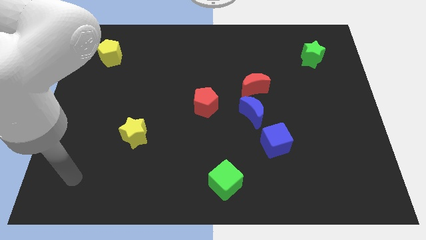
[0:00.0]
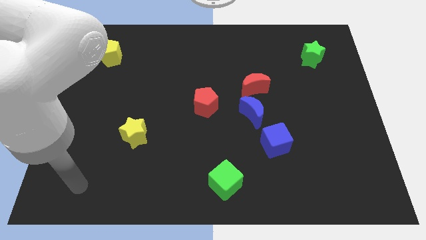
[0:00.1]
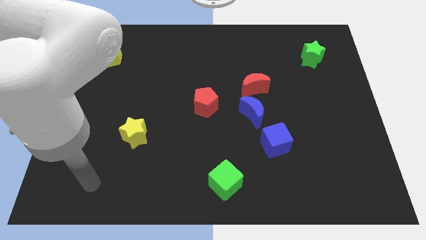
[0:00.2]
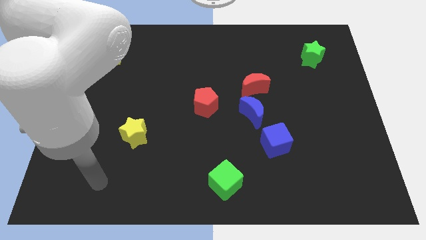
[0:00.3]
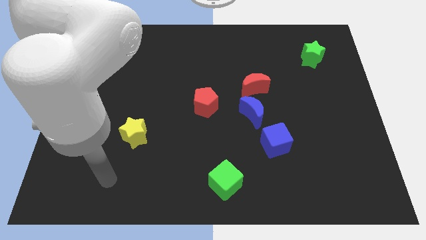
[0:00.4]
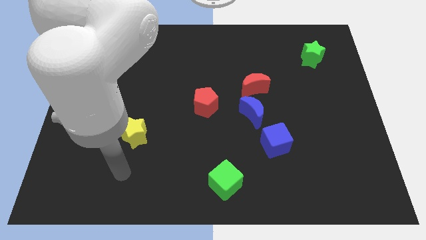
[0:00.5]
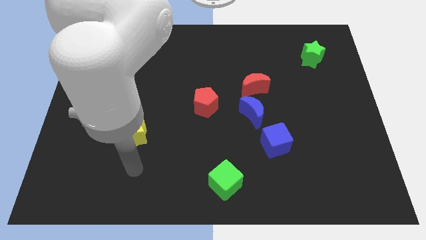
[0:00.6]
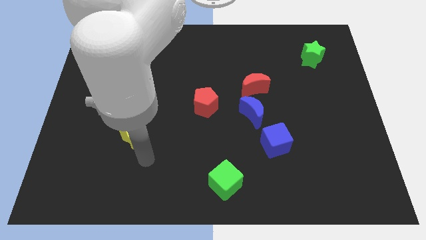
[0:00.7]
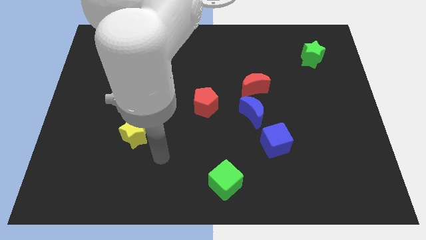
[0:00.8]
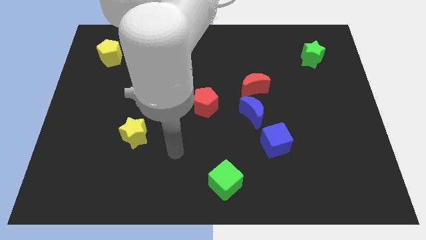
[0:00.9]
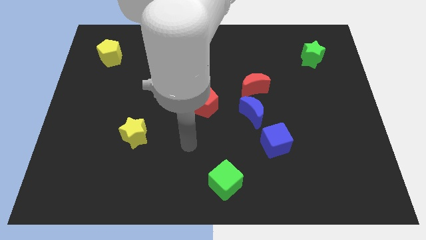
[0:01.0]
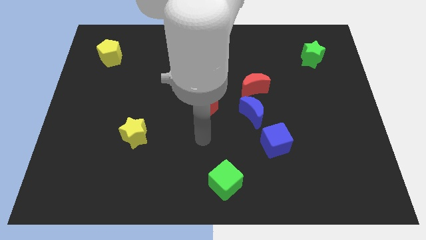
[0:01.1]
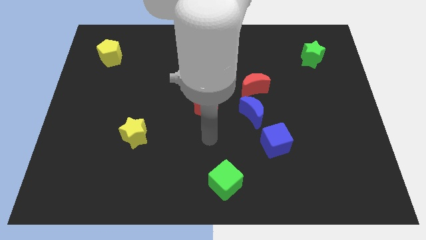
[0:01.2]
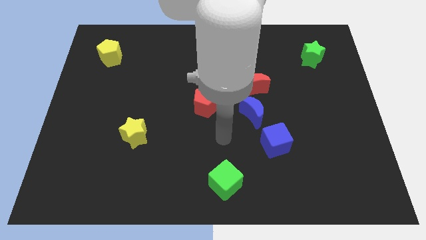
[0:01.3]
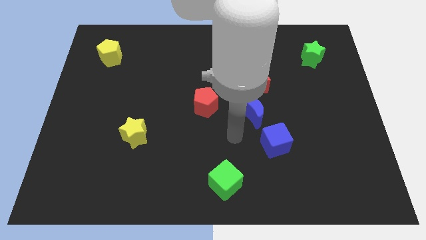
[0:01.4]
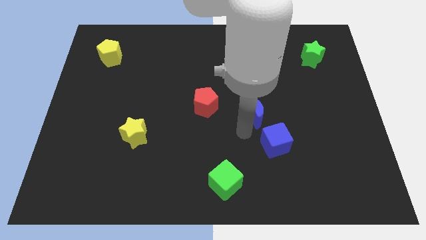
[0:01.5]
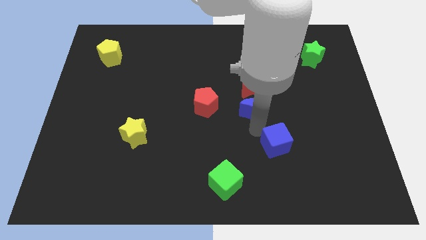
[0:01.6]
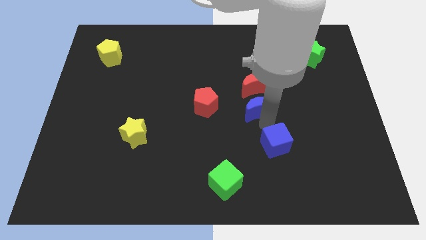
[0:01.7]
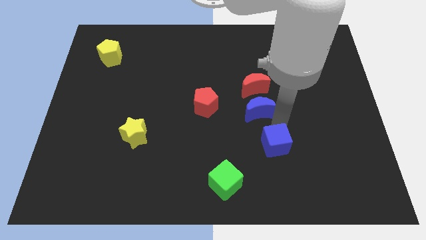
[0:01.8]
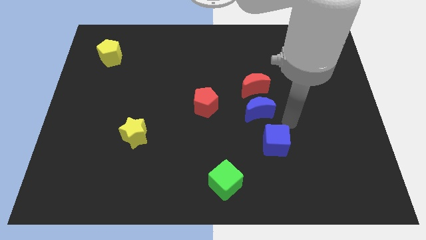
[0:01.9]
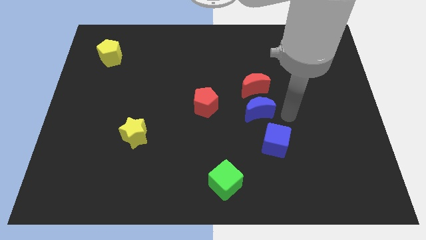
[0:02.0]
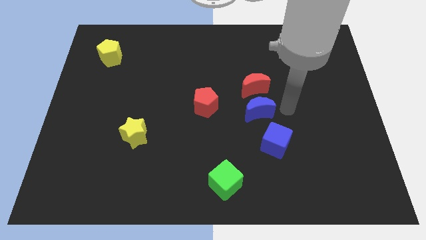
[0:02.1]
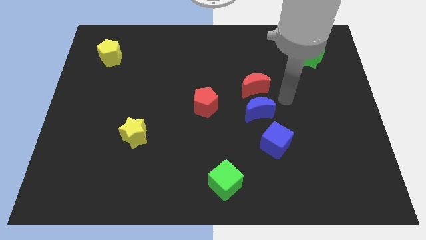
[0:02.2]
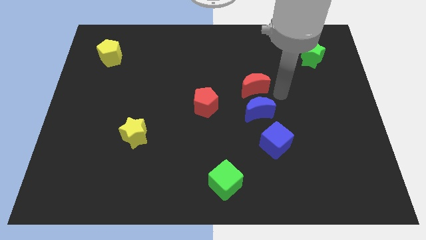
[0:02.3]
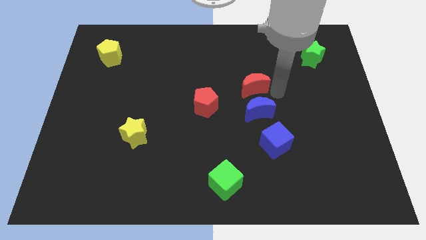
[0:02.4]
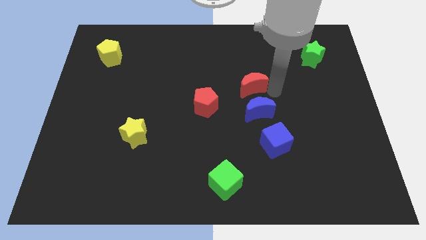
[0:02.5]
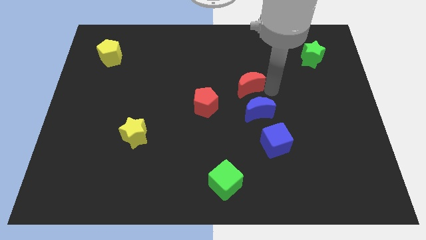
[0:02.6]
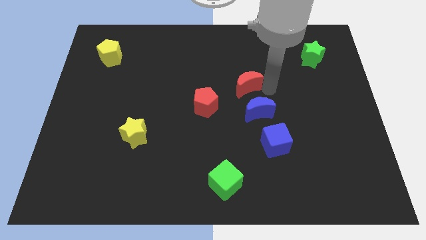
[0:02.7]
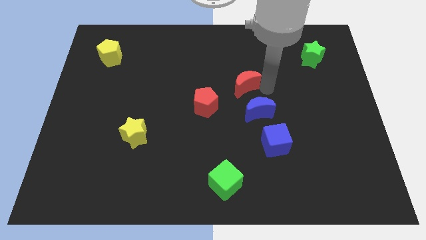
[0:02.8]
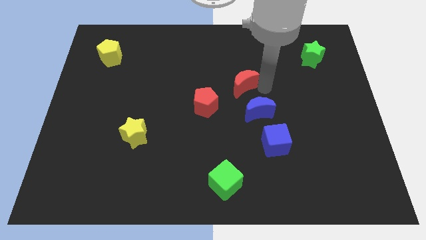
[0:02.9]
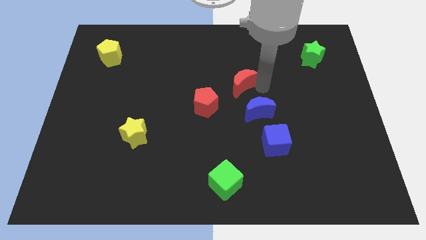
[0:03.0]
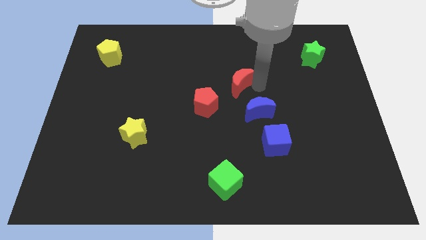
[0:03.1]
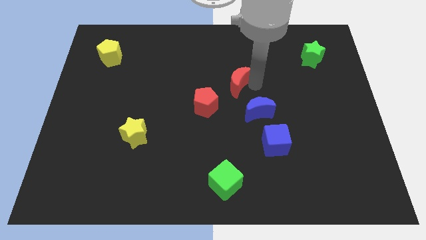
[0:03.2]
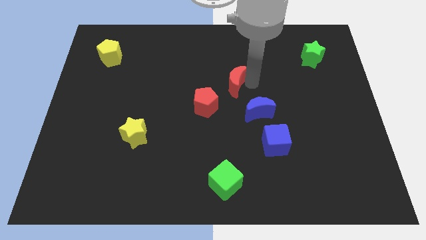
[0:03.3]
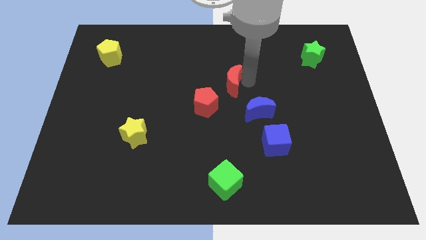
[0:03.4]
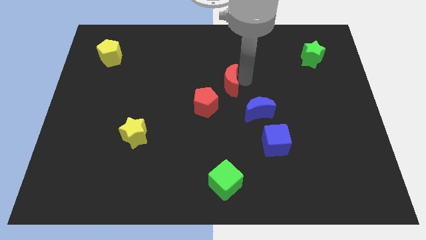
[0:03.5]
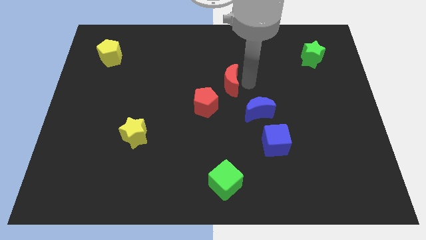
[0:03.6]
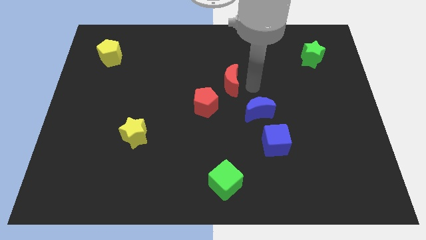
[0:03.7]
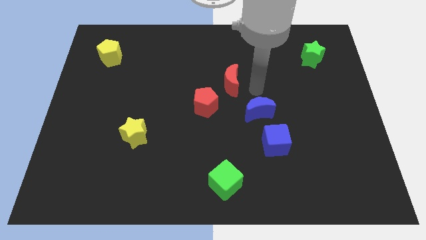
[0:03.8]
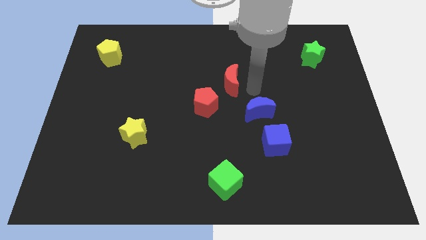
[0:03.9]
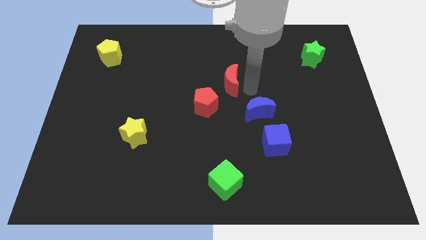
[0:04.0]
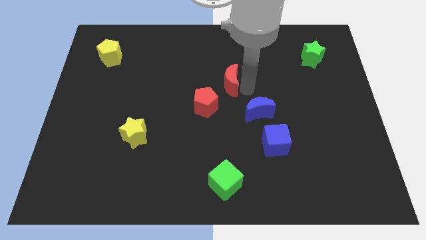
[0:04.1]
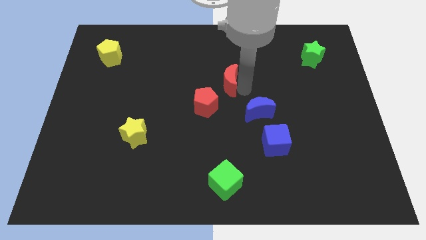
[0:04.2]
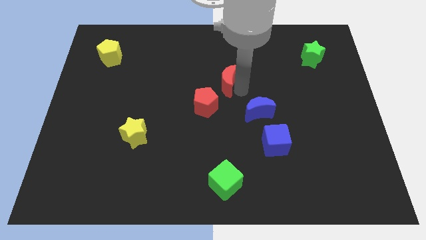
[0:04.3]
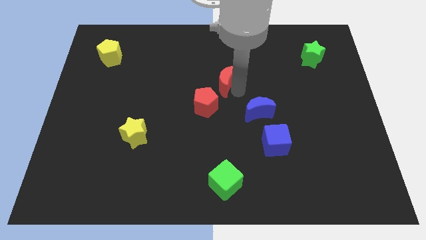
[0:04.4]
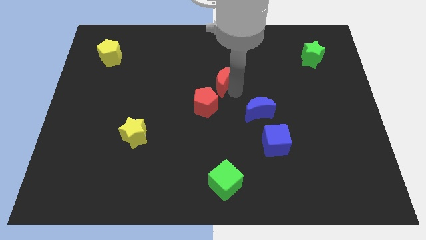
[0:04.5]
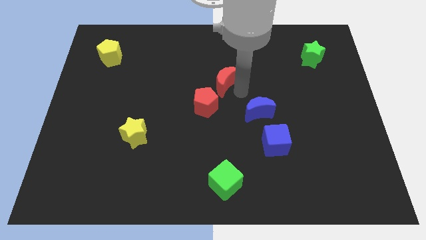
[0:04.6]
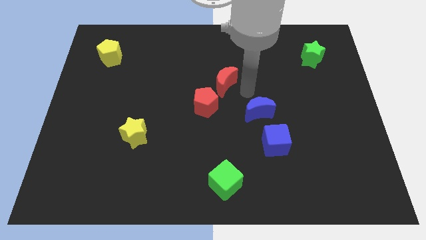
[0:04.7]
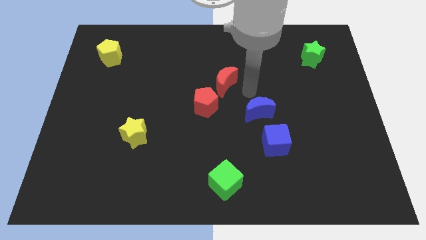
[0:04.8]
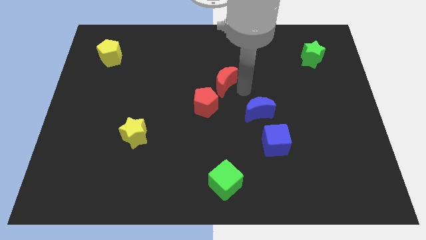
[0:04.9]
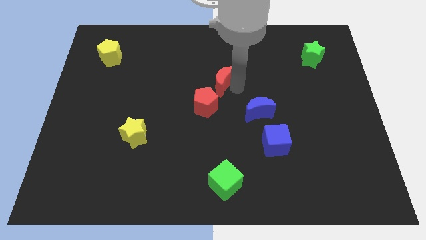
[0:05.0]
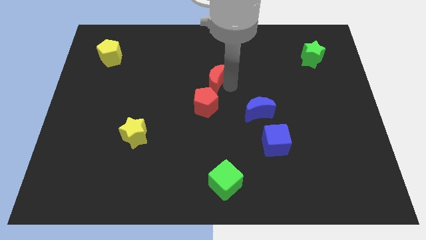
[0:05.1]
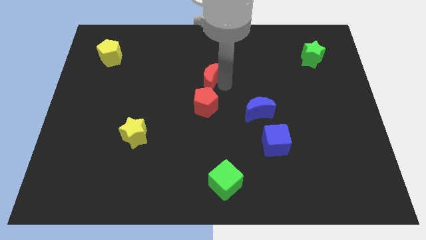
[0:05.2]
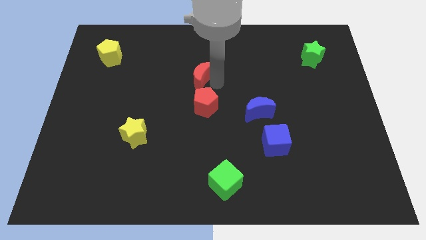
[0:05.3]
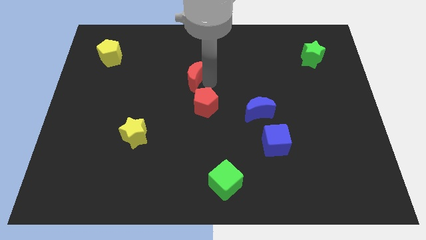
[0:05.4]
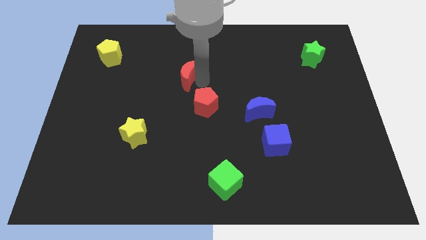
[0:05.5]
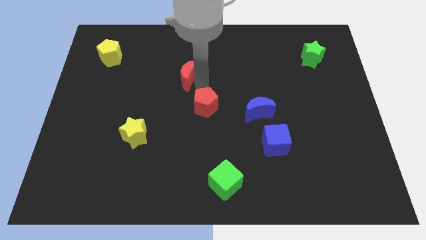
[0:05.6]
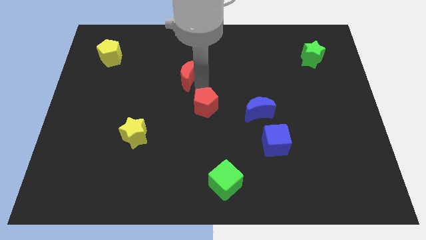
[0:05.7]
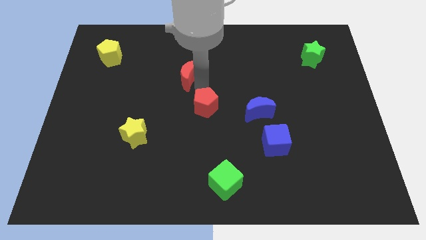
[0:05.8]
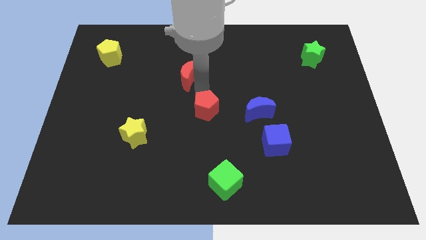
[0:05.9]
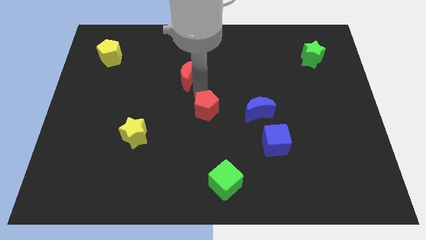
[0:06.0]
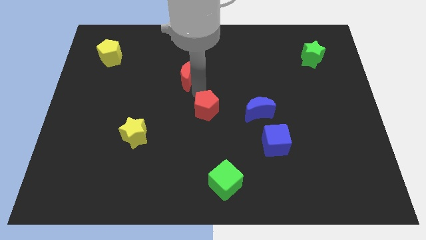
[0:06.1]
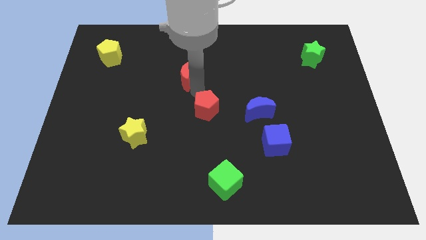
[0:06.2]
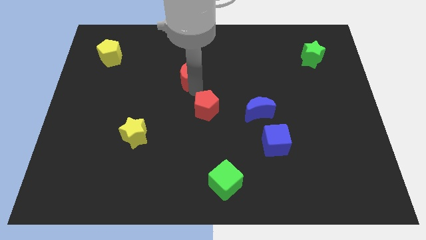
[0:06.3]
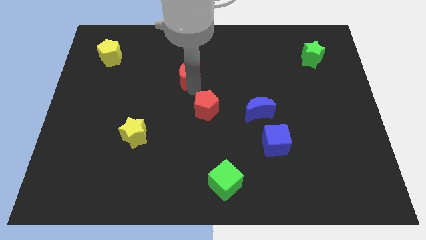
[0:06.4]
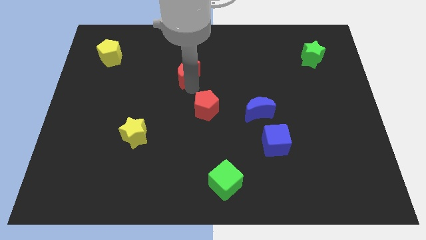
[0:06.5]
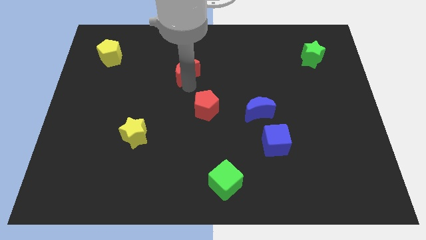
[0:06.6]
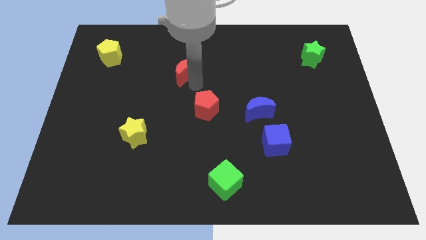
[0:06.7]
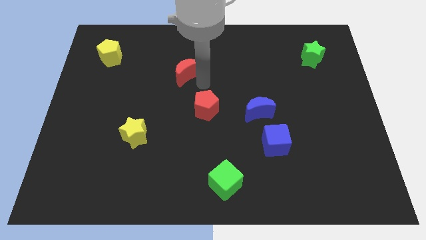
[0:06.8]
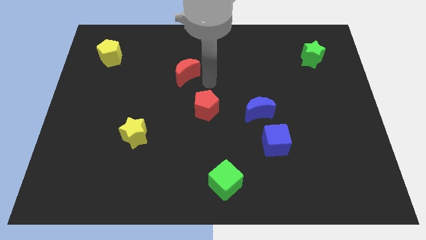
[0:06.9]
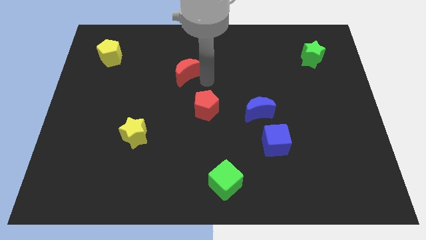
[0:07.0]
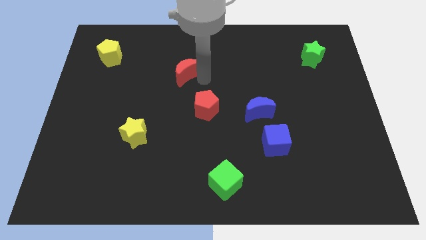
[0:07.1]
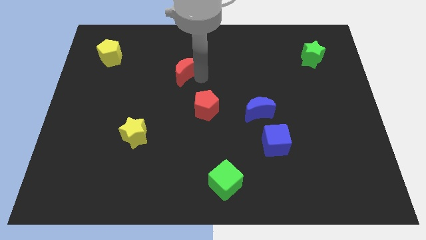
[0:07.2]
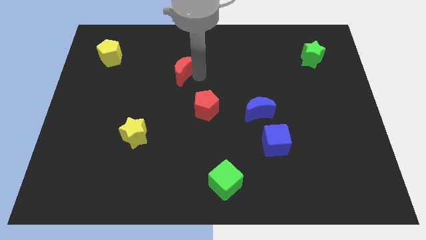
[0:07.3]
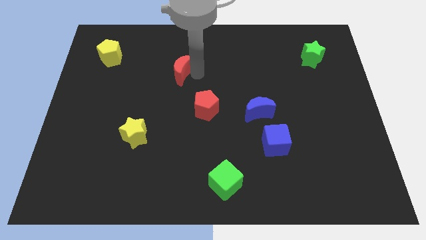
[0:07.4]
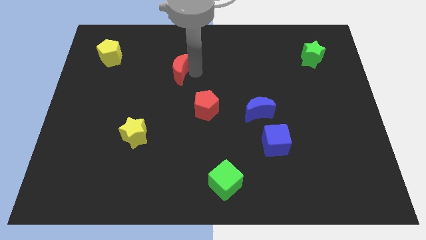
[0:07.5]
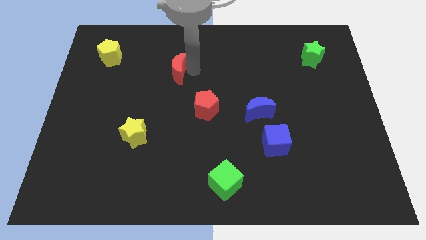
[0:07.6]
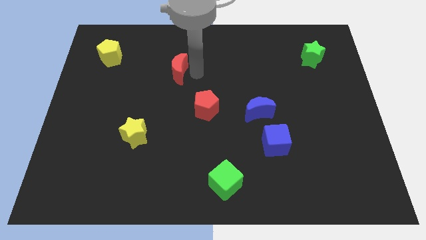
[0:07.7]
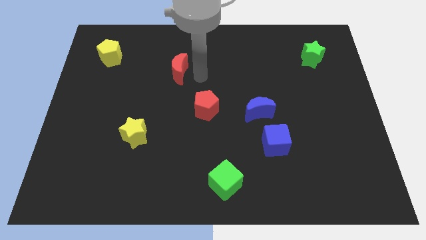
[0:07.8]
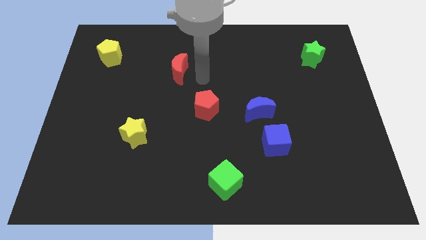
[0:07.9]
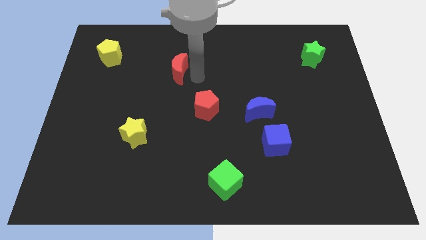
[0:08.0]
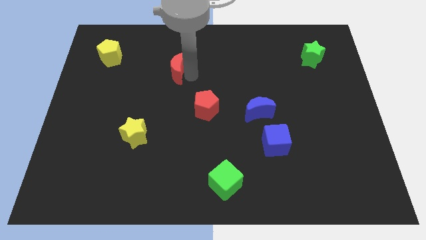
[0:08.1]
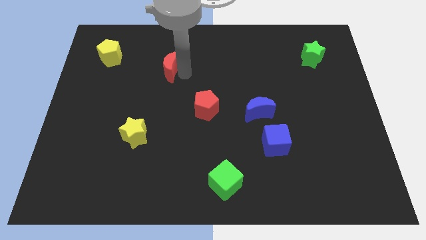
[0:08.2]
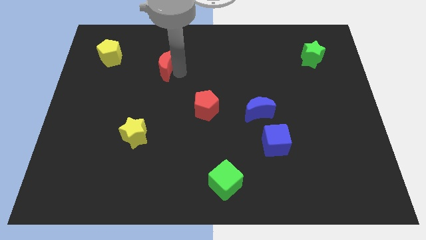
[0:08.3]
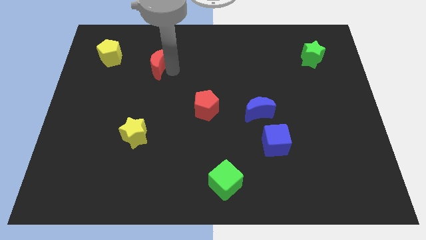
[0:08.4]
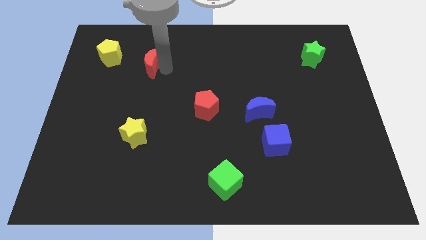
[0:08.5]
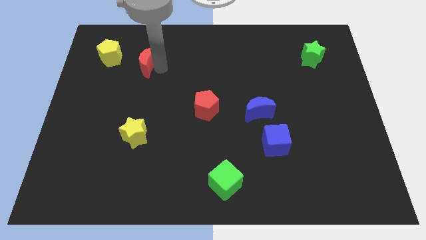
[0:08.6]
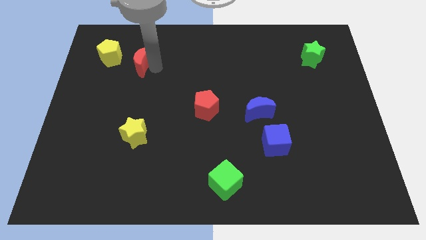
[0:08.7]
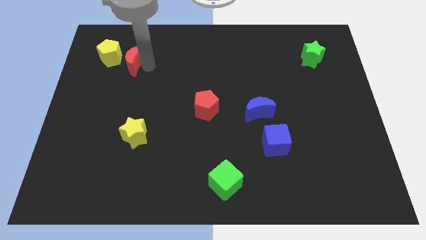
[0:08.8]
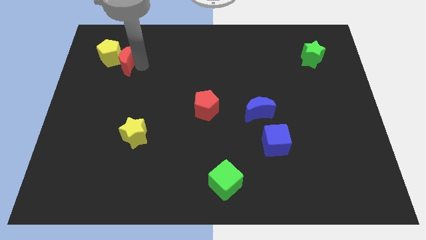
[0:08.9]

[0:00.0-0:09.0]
push the red moon to the yellow pentagon
